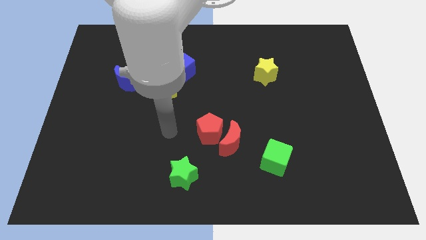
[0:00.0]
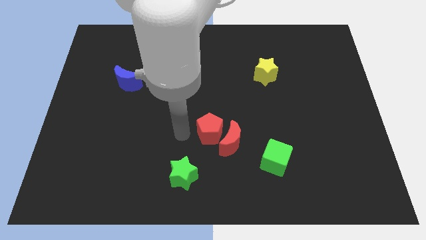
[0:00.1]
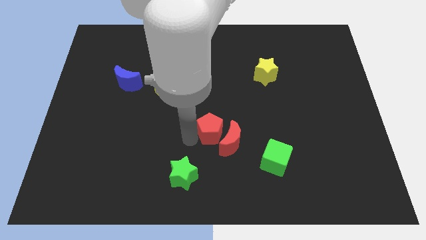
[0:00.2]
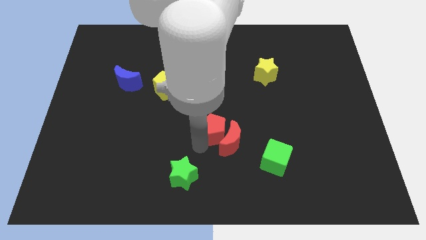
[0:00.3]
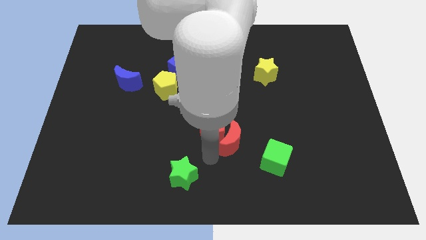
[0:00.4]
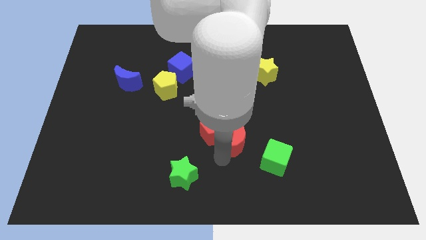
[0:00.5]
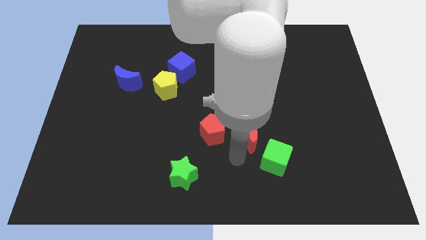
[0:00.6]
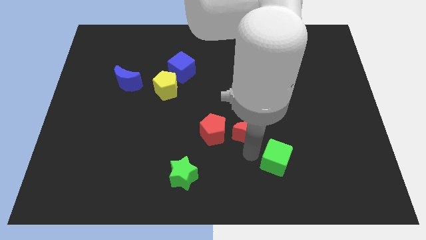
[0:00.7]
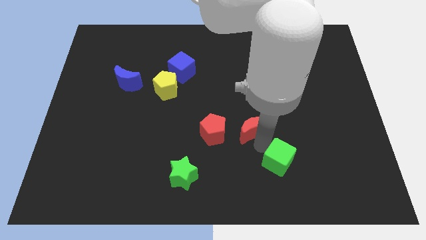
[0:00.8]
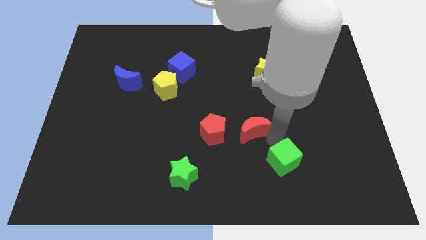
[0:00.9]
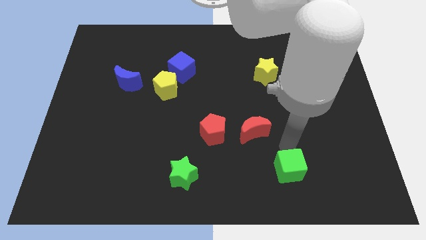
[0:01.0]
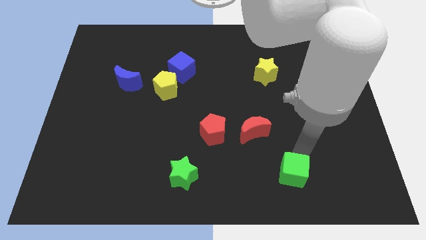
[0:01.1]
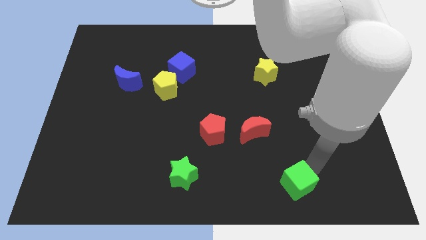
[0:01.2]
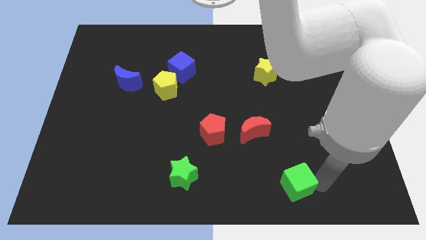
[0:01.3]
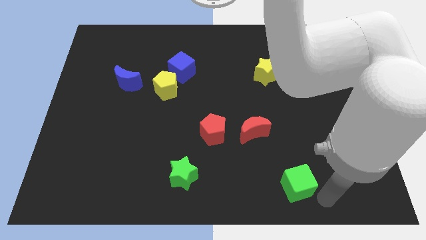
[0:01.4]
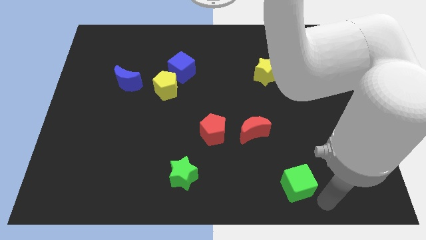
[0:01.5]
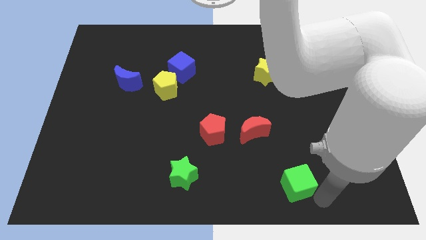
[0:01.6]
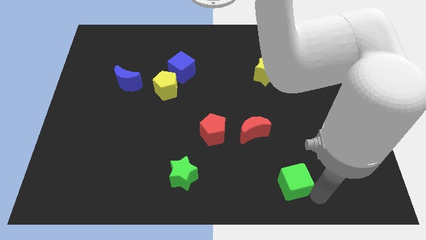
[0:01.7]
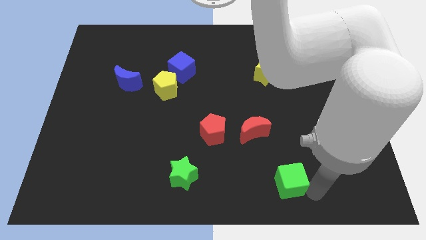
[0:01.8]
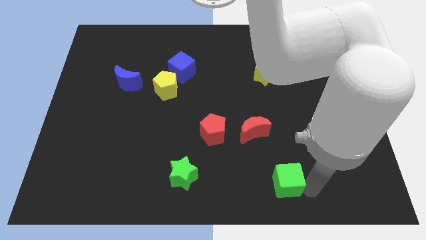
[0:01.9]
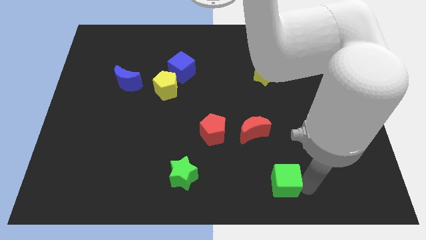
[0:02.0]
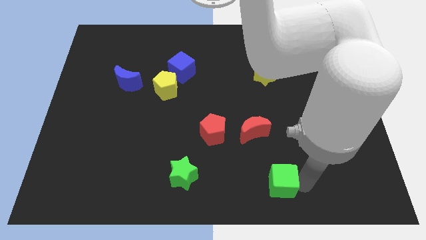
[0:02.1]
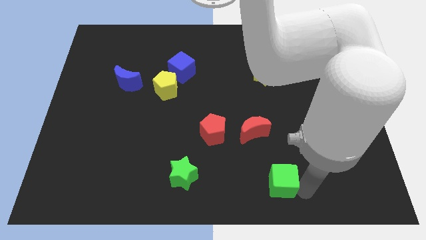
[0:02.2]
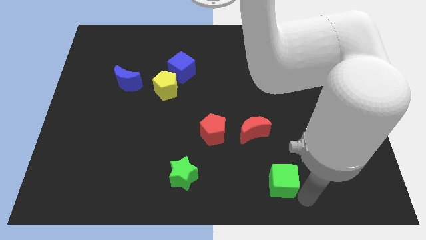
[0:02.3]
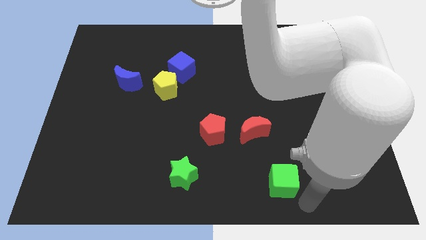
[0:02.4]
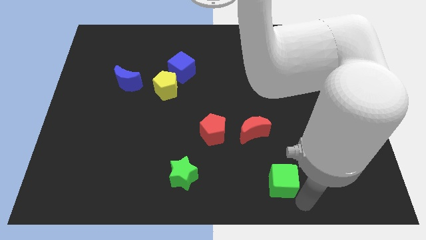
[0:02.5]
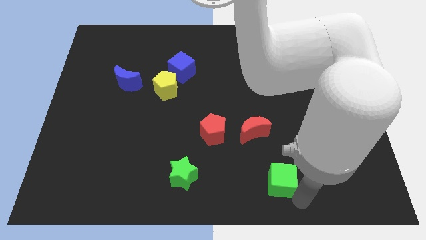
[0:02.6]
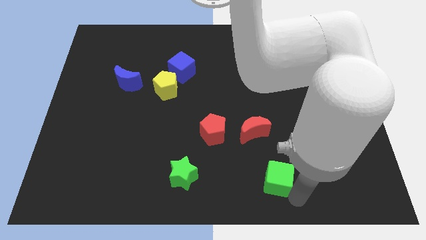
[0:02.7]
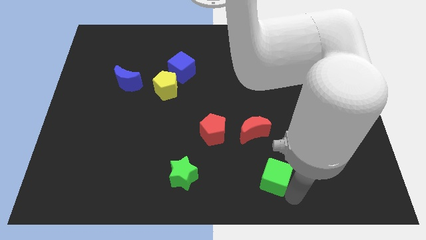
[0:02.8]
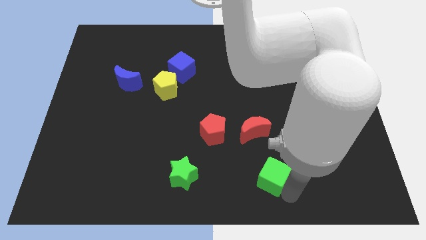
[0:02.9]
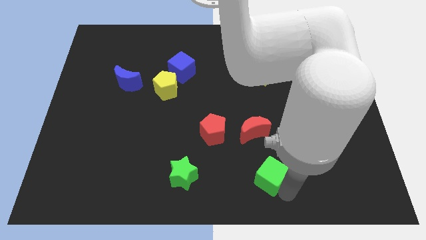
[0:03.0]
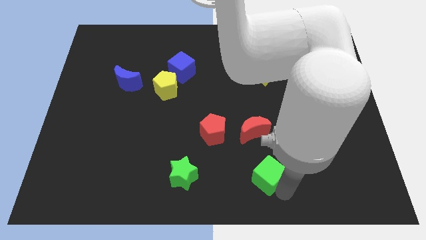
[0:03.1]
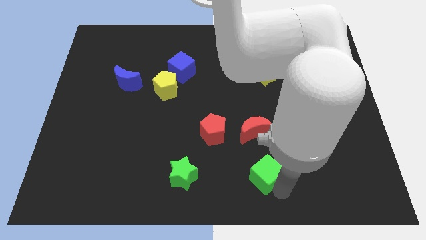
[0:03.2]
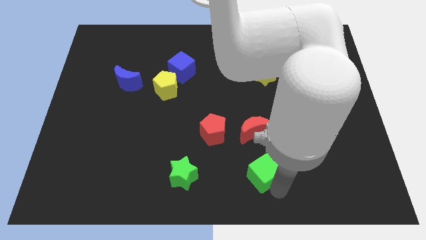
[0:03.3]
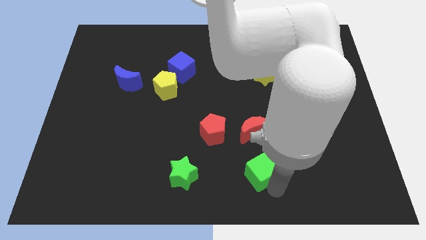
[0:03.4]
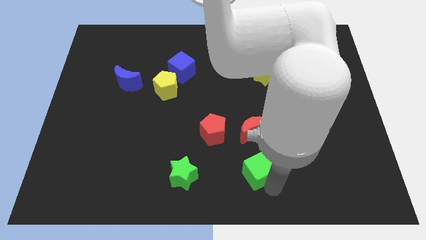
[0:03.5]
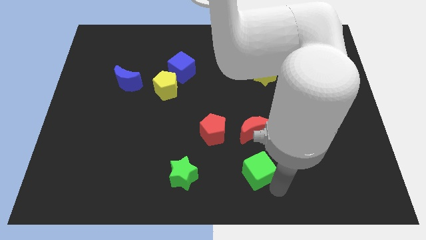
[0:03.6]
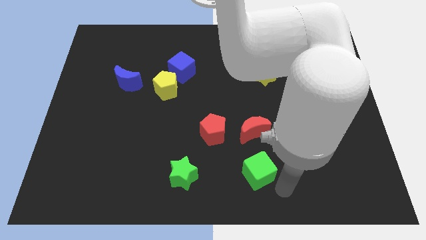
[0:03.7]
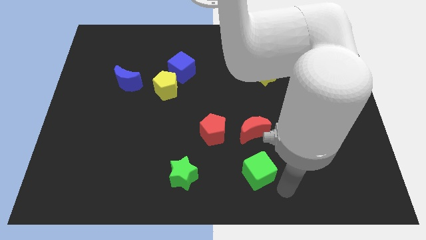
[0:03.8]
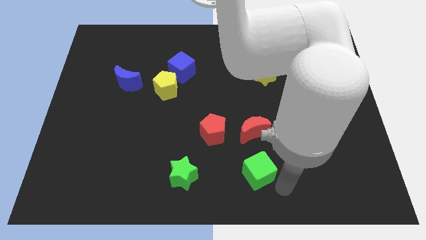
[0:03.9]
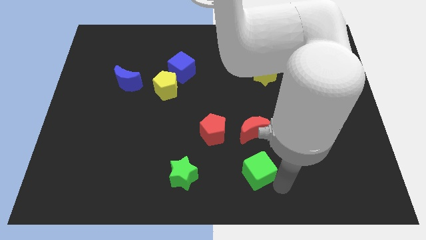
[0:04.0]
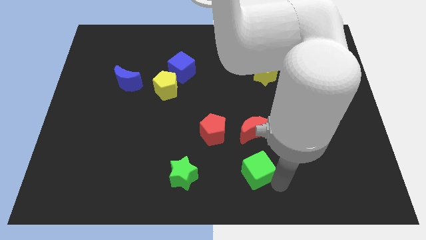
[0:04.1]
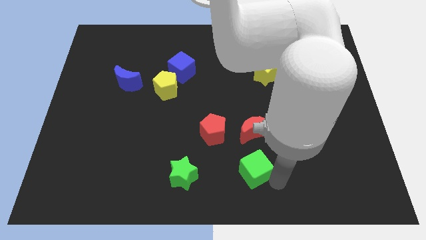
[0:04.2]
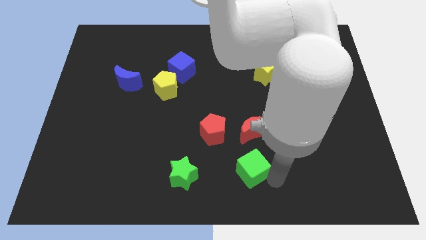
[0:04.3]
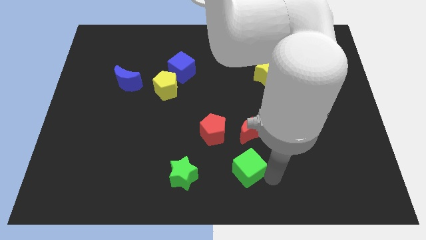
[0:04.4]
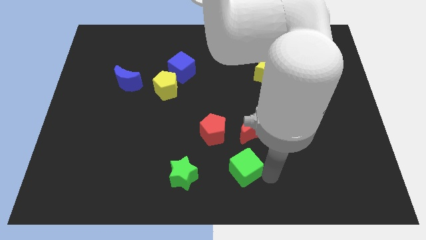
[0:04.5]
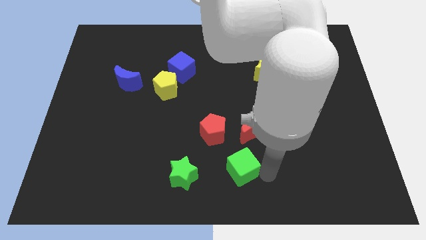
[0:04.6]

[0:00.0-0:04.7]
push the green cube to the bottom left side of the red moon

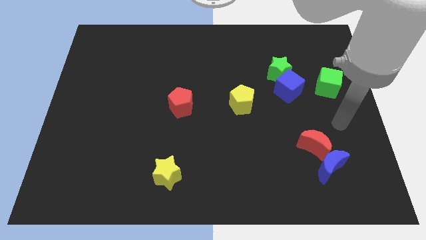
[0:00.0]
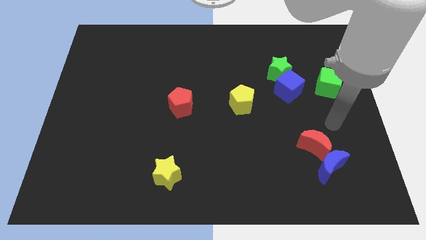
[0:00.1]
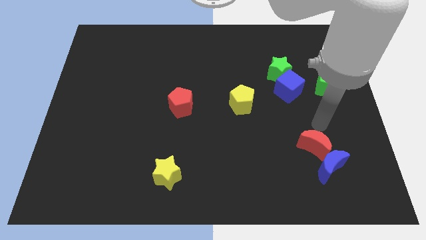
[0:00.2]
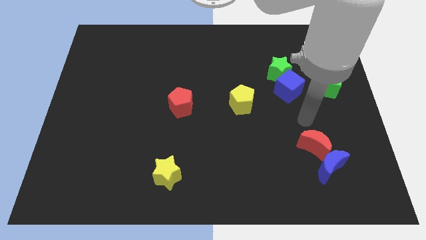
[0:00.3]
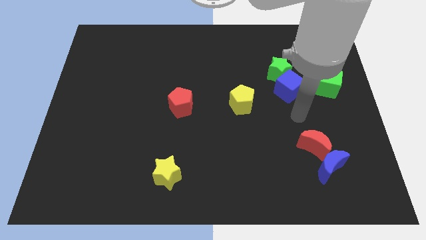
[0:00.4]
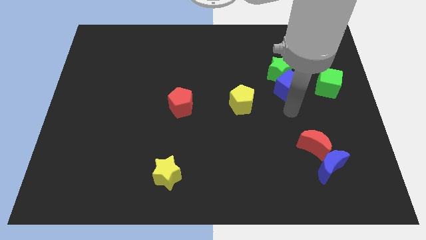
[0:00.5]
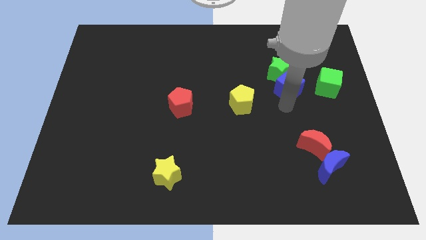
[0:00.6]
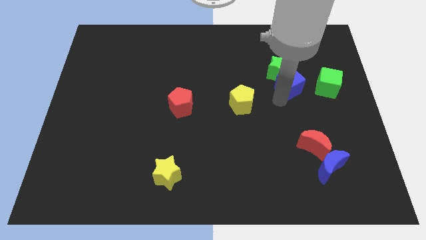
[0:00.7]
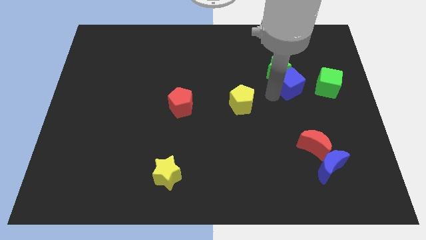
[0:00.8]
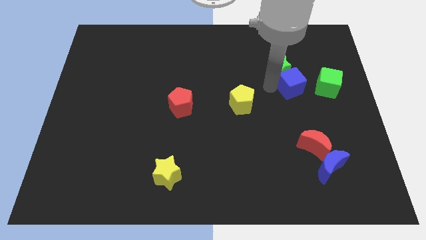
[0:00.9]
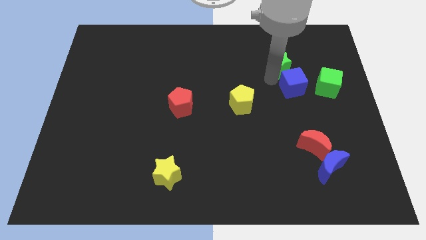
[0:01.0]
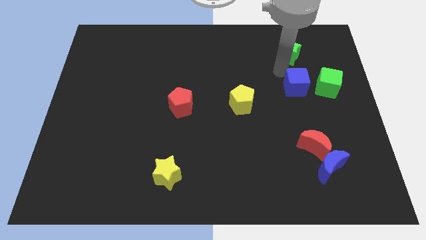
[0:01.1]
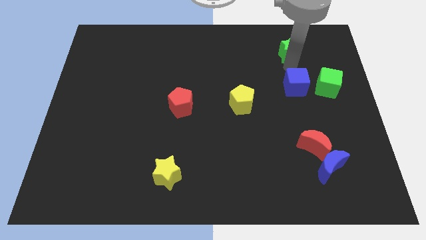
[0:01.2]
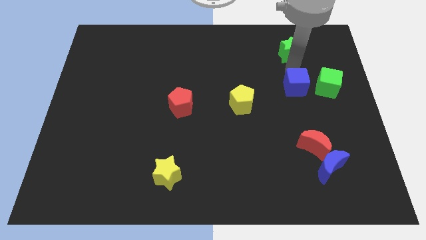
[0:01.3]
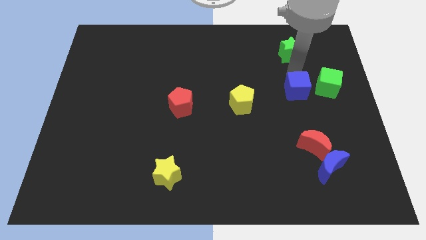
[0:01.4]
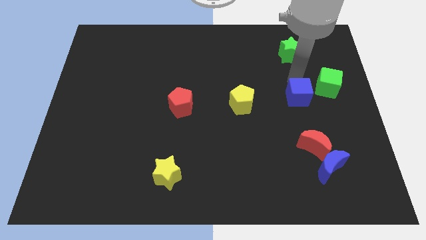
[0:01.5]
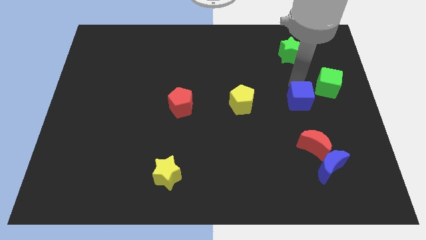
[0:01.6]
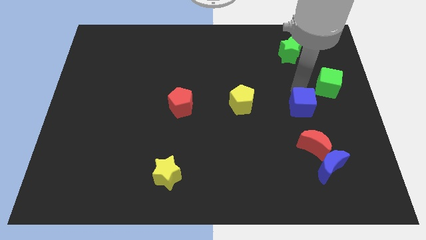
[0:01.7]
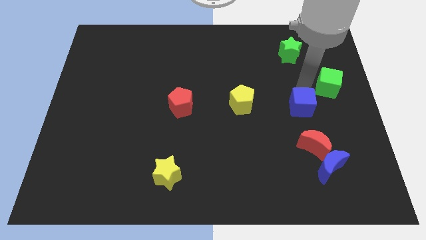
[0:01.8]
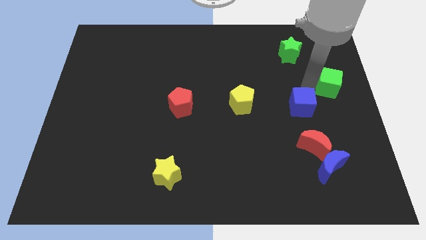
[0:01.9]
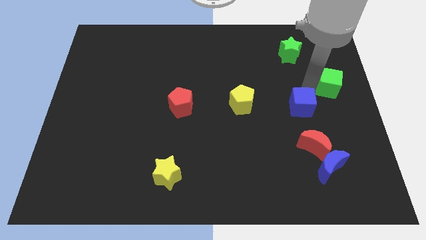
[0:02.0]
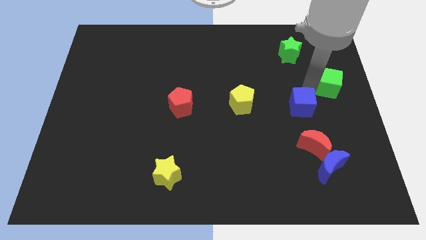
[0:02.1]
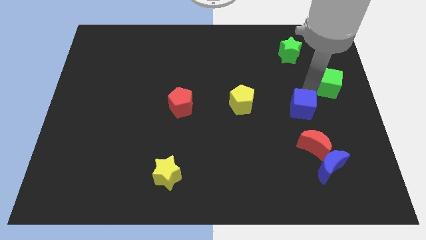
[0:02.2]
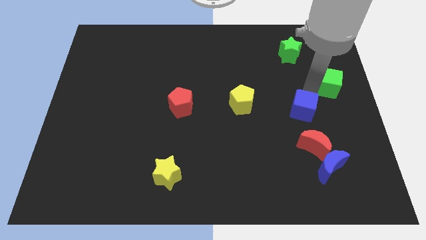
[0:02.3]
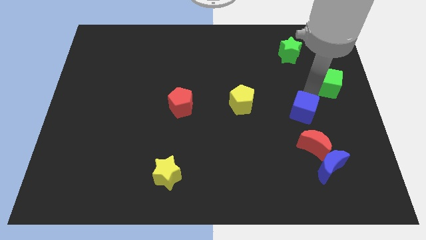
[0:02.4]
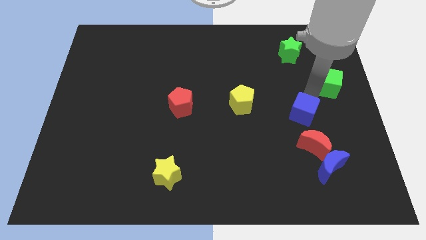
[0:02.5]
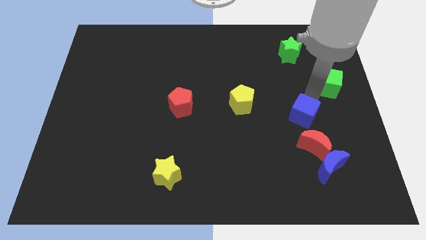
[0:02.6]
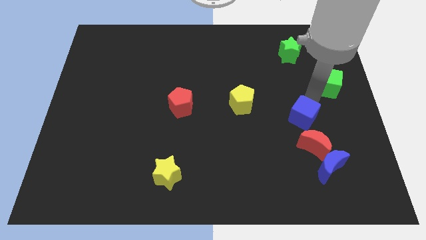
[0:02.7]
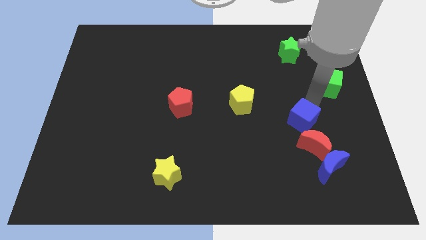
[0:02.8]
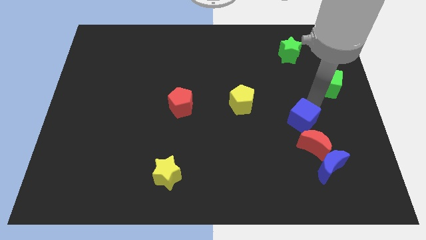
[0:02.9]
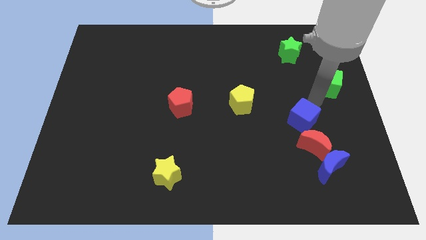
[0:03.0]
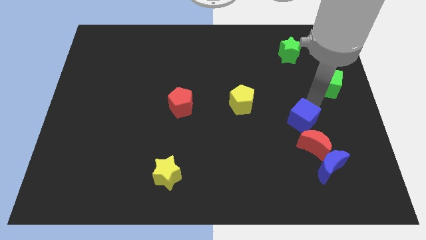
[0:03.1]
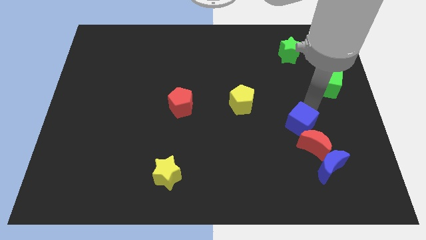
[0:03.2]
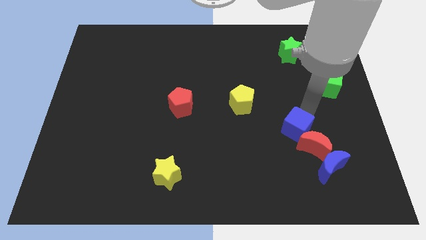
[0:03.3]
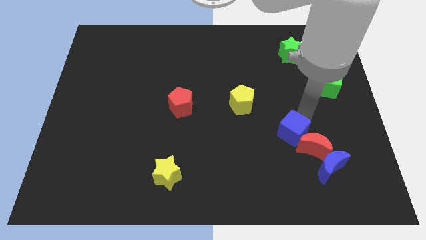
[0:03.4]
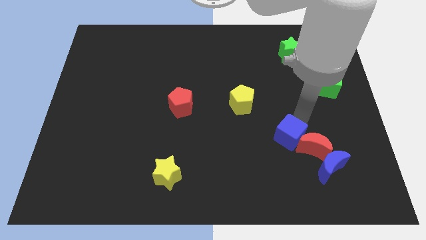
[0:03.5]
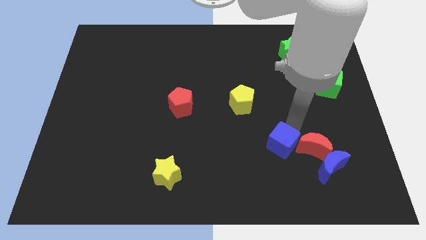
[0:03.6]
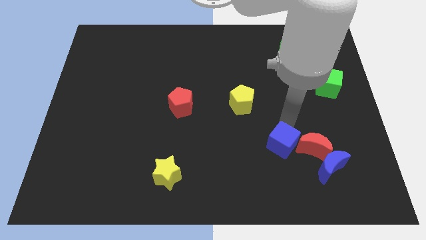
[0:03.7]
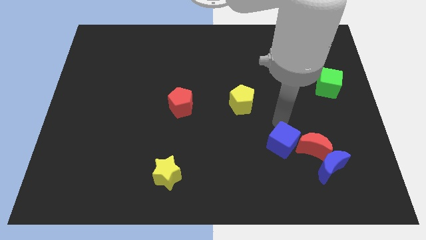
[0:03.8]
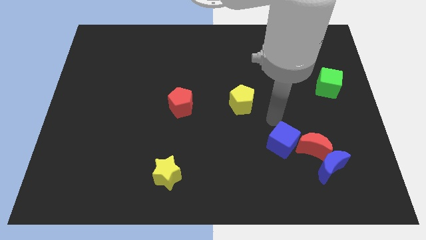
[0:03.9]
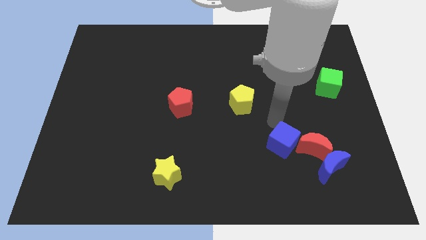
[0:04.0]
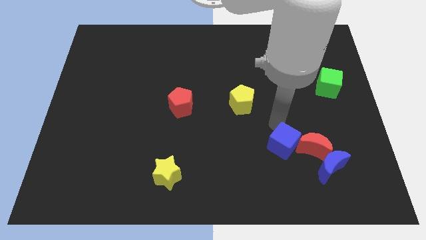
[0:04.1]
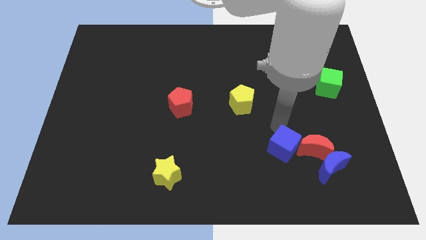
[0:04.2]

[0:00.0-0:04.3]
slide the blue cube to the bottom left of the red moon
